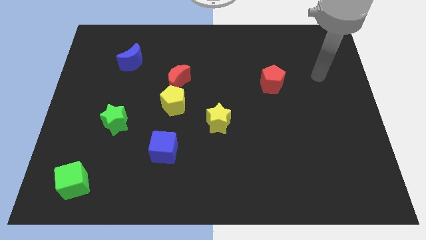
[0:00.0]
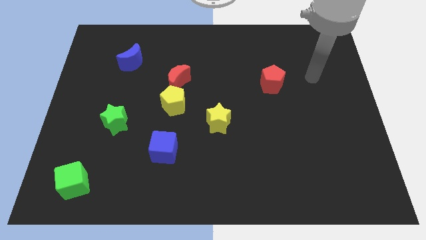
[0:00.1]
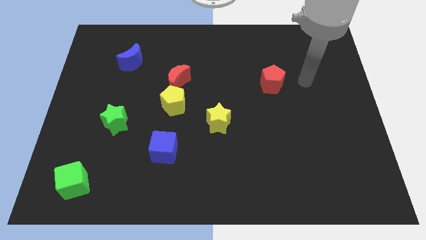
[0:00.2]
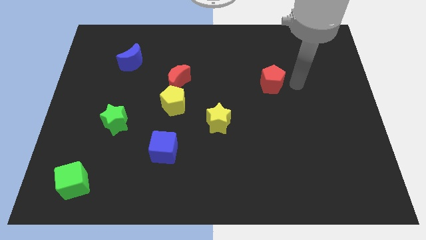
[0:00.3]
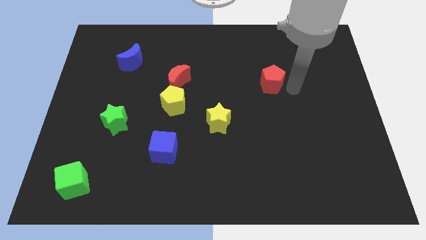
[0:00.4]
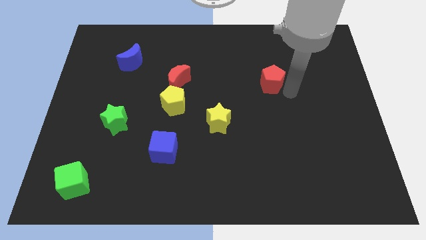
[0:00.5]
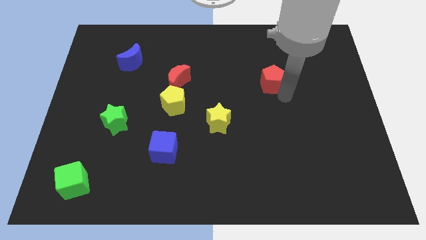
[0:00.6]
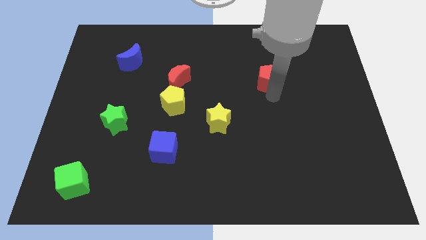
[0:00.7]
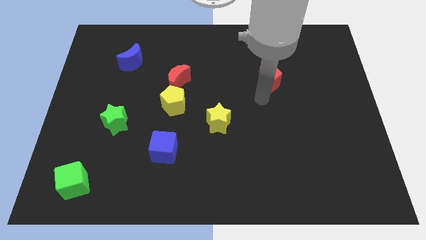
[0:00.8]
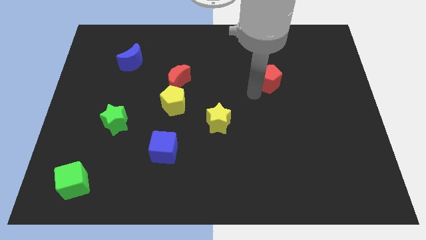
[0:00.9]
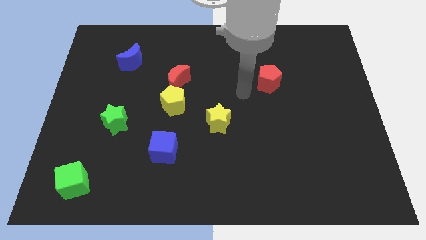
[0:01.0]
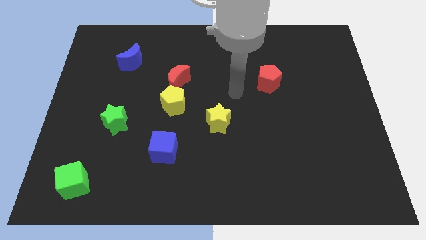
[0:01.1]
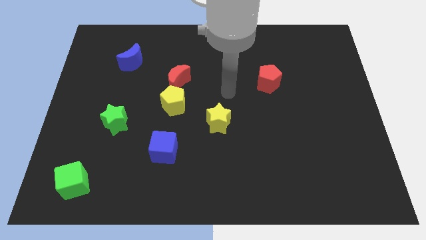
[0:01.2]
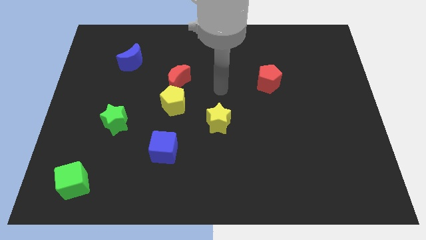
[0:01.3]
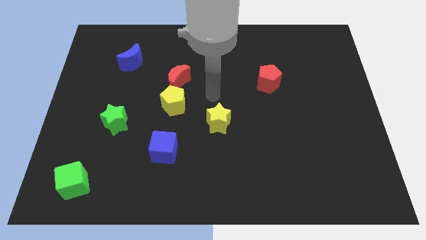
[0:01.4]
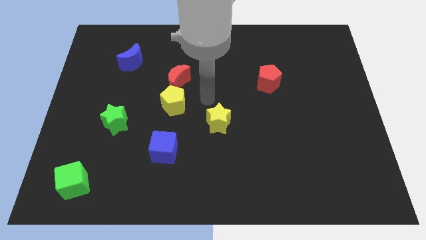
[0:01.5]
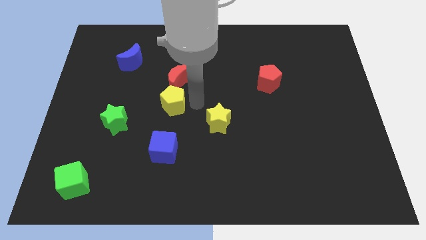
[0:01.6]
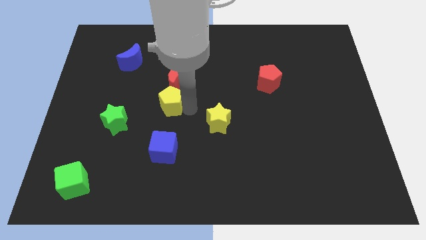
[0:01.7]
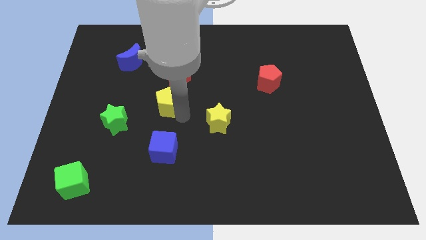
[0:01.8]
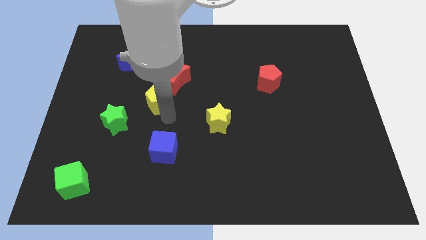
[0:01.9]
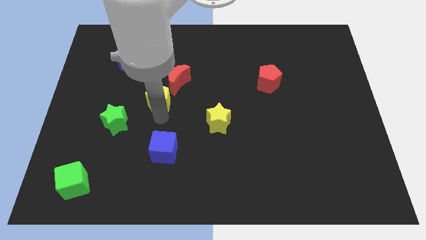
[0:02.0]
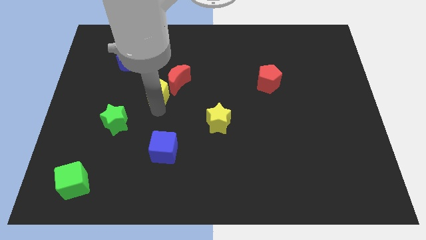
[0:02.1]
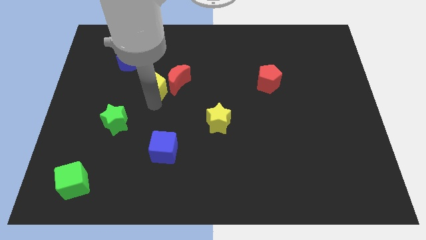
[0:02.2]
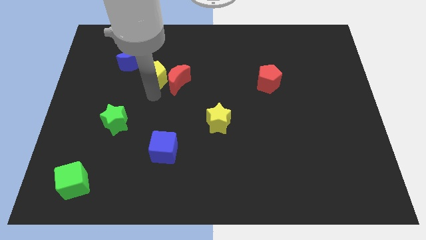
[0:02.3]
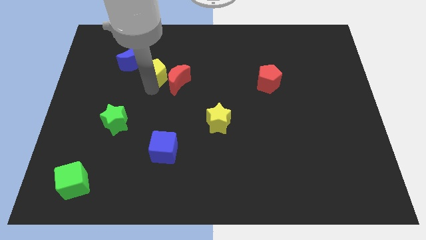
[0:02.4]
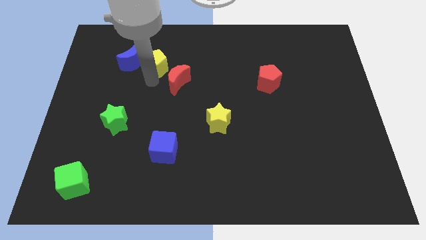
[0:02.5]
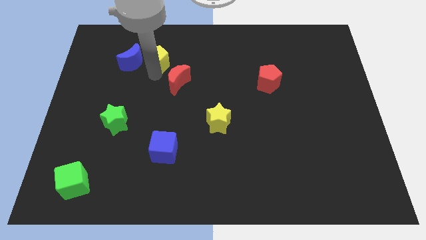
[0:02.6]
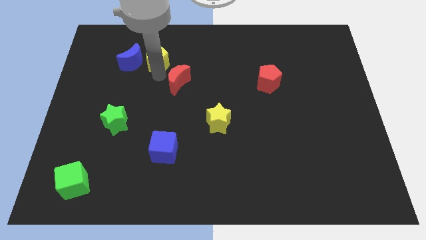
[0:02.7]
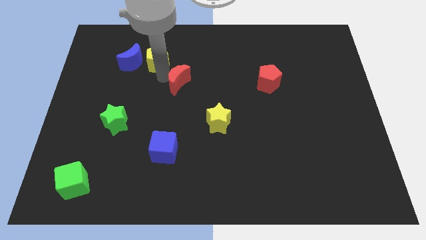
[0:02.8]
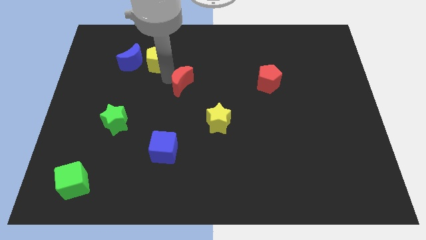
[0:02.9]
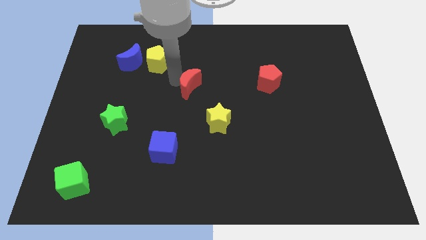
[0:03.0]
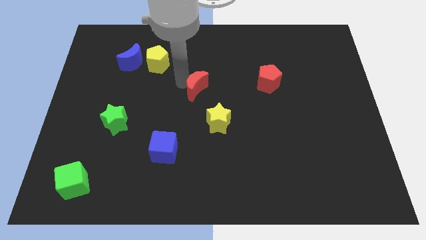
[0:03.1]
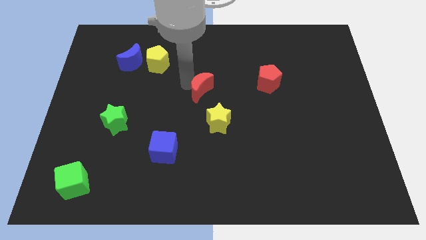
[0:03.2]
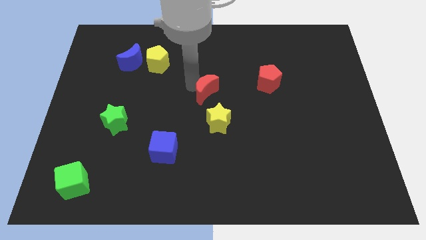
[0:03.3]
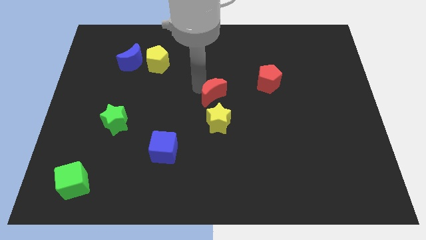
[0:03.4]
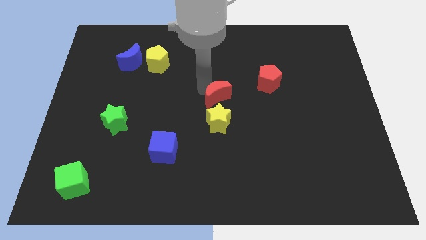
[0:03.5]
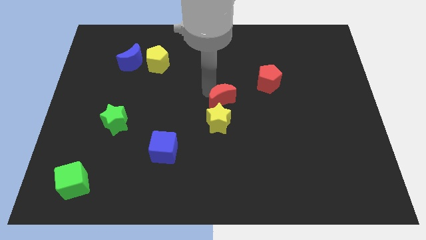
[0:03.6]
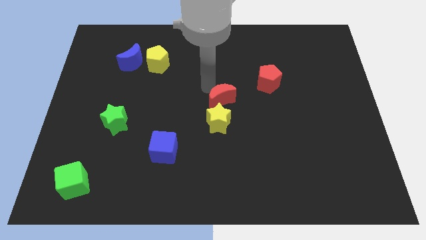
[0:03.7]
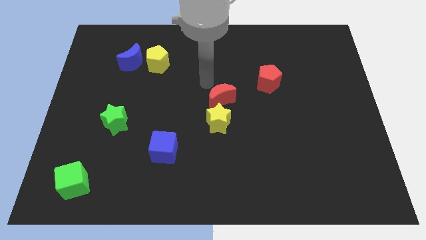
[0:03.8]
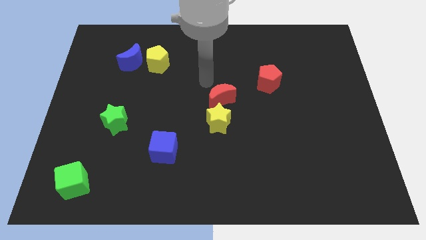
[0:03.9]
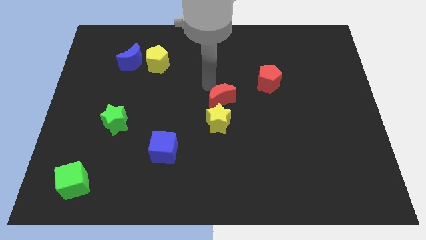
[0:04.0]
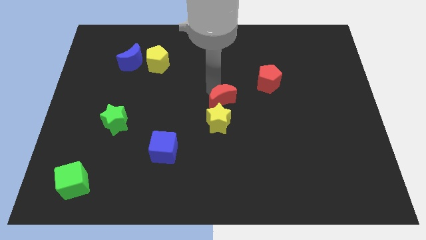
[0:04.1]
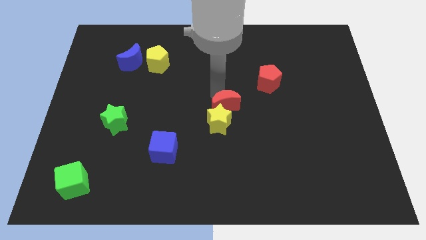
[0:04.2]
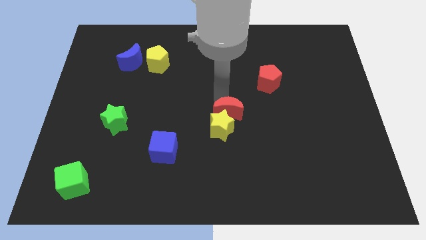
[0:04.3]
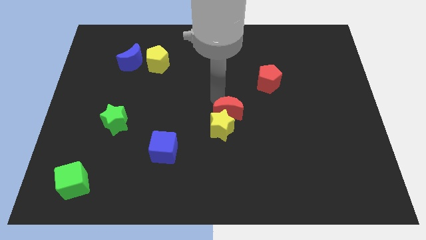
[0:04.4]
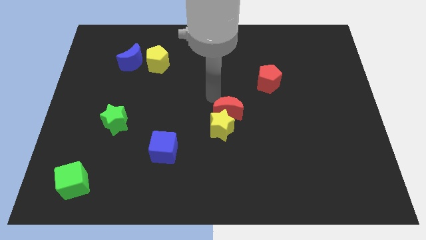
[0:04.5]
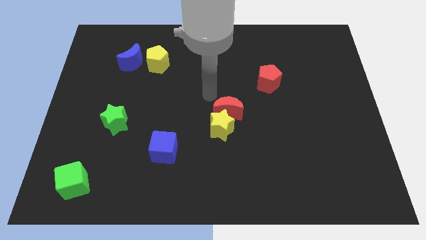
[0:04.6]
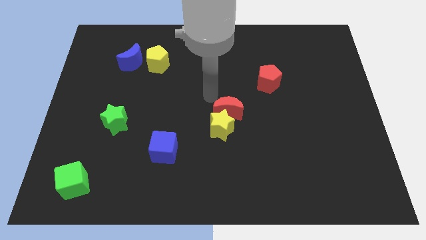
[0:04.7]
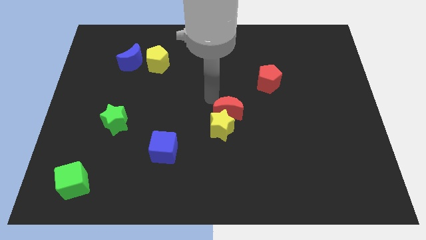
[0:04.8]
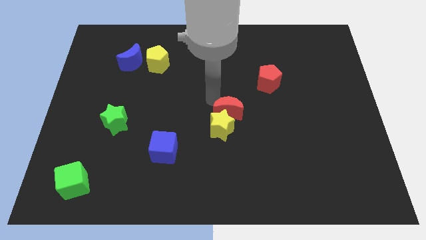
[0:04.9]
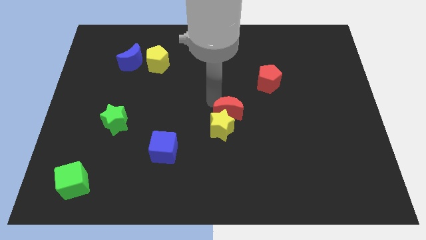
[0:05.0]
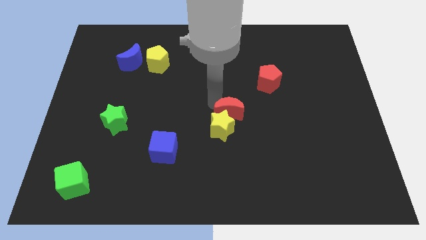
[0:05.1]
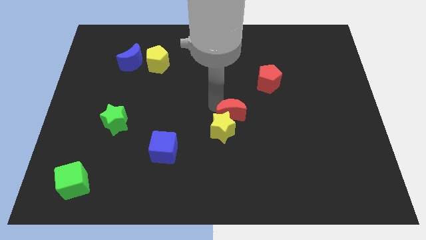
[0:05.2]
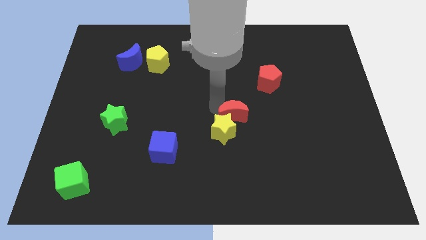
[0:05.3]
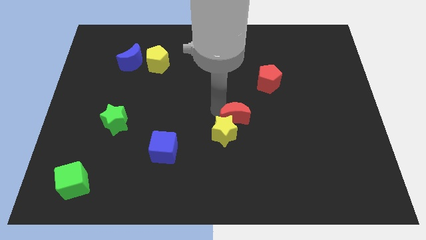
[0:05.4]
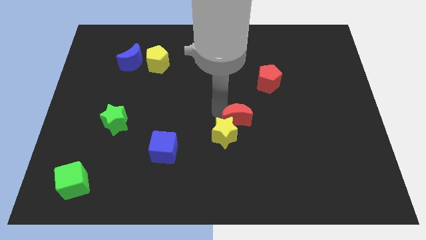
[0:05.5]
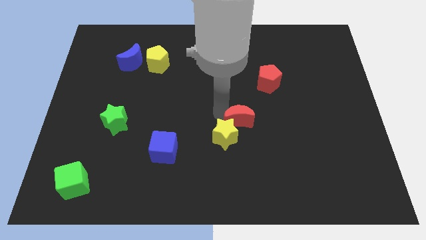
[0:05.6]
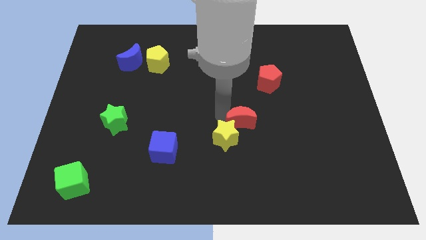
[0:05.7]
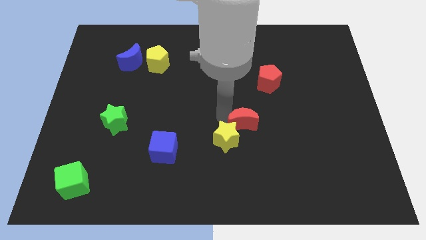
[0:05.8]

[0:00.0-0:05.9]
move the red moon diagonally down and right

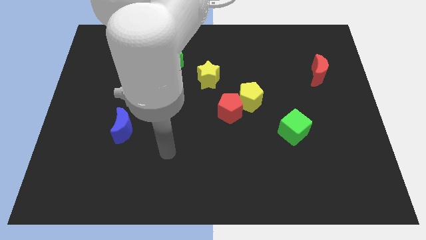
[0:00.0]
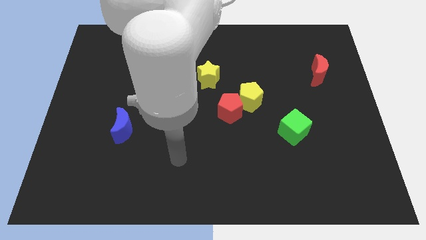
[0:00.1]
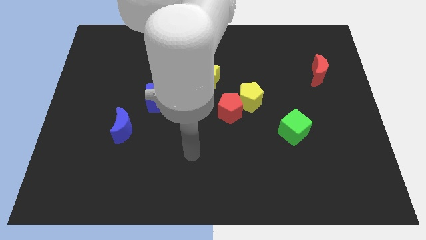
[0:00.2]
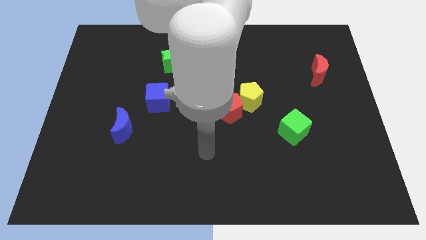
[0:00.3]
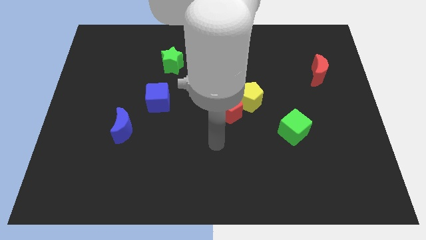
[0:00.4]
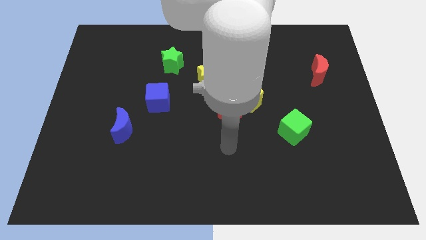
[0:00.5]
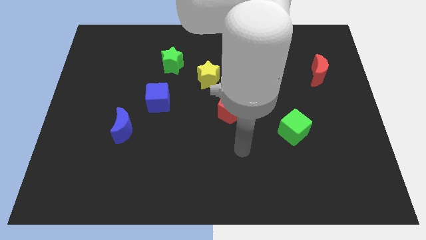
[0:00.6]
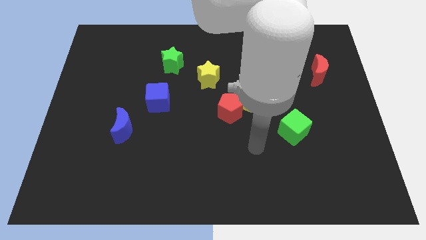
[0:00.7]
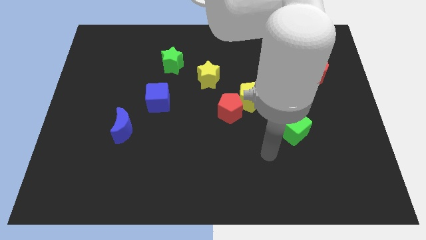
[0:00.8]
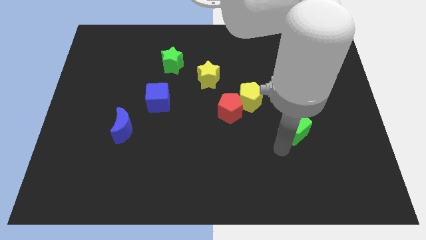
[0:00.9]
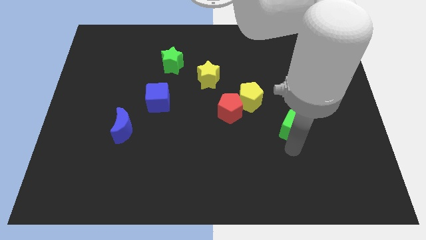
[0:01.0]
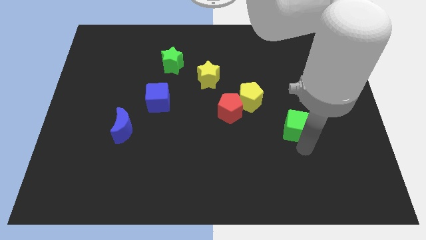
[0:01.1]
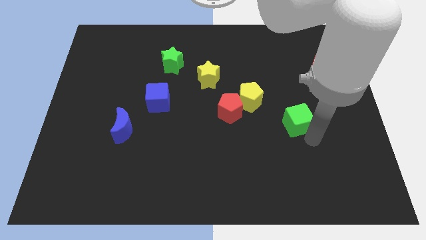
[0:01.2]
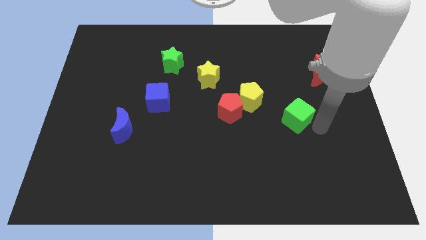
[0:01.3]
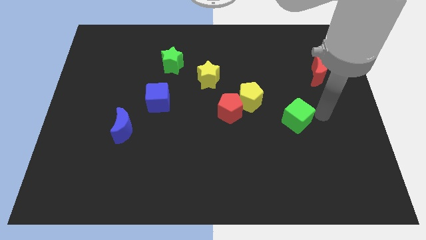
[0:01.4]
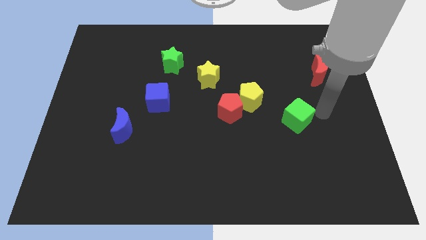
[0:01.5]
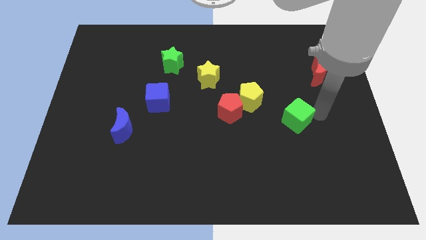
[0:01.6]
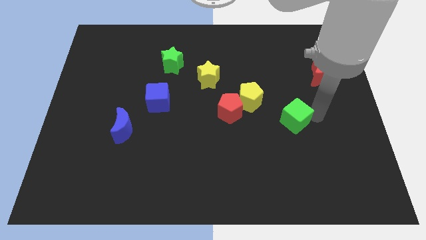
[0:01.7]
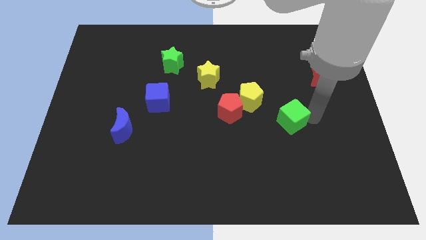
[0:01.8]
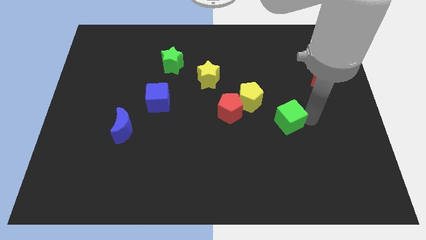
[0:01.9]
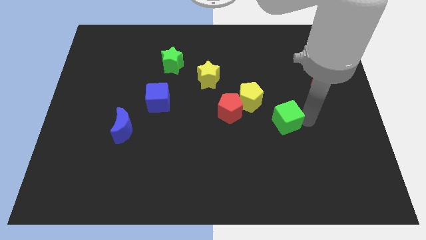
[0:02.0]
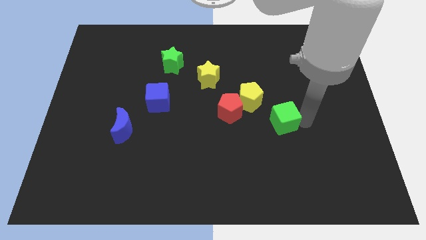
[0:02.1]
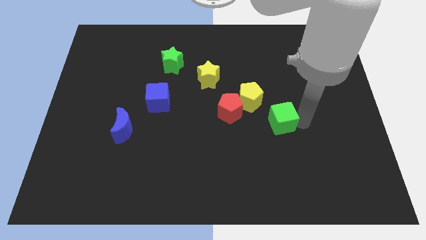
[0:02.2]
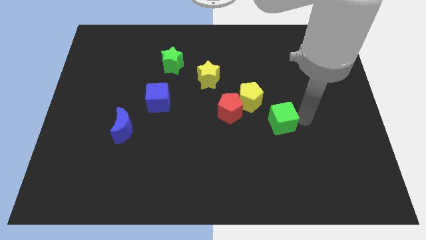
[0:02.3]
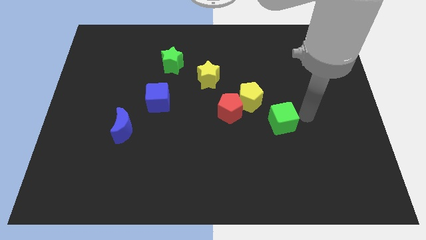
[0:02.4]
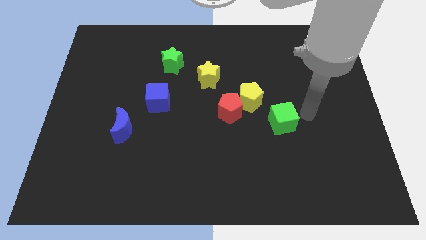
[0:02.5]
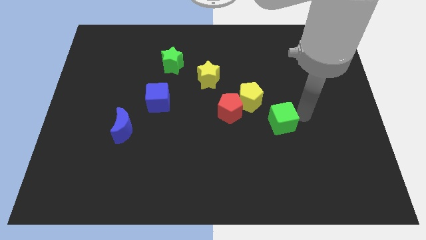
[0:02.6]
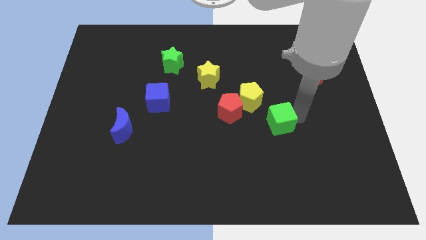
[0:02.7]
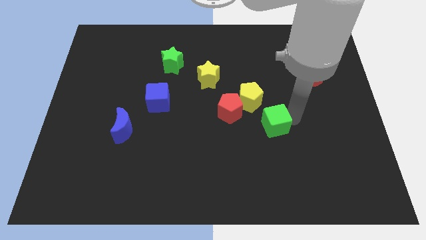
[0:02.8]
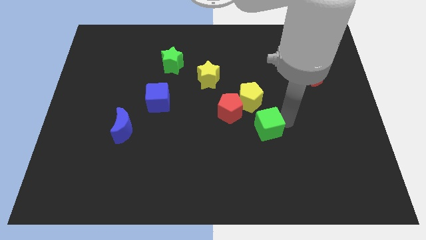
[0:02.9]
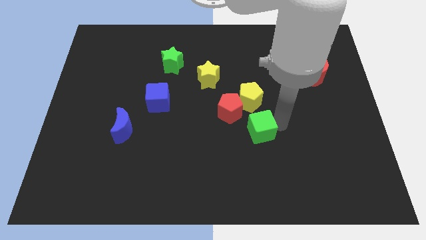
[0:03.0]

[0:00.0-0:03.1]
push the green cube to the left a bit
